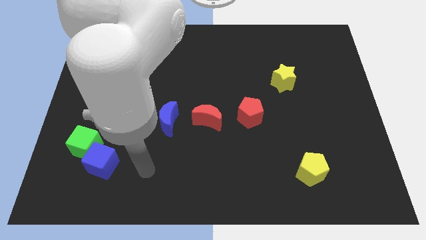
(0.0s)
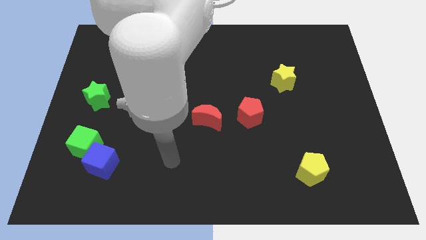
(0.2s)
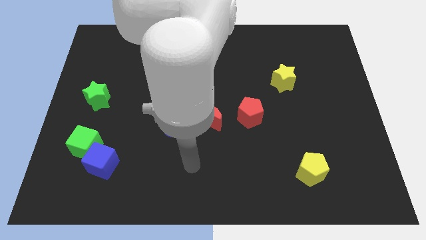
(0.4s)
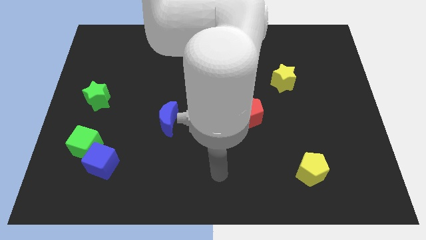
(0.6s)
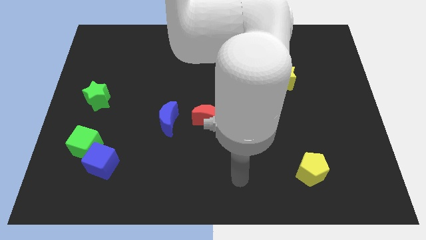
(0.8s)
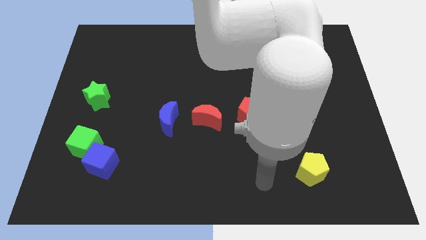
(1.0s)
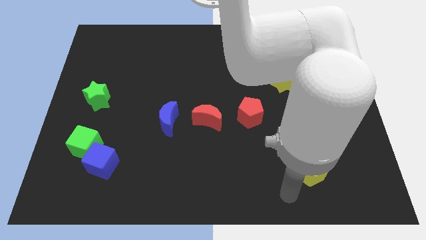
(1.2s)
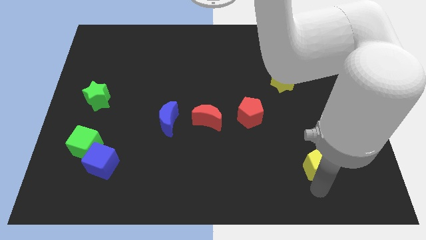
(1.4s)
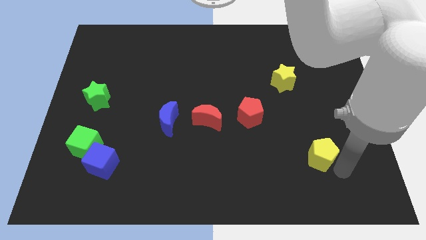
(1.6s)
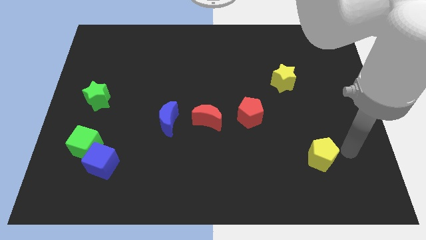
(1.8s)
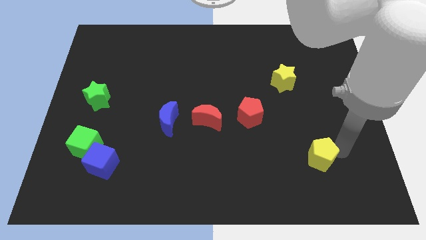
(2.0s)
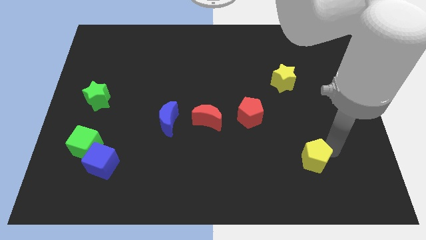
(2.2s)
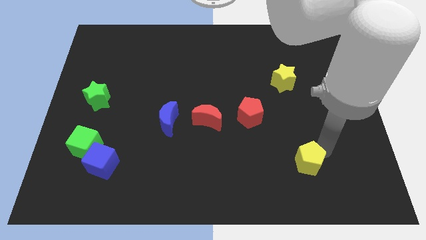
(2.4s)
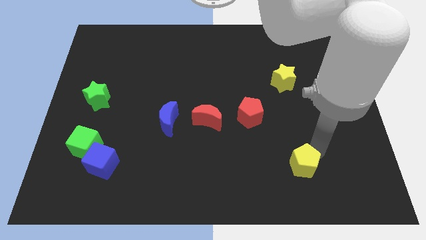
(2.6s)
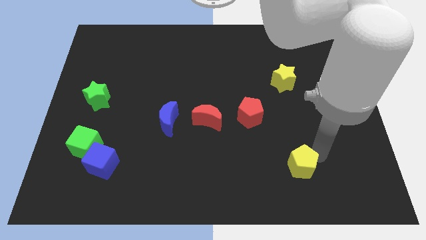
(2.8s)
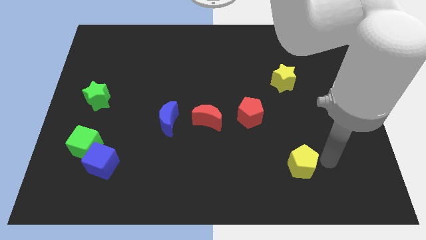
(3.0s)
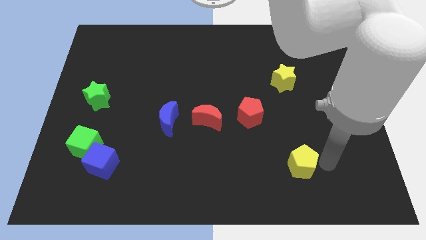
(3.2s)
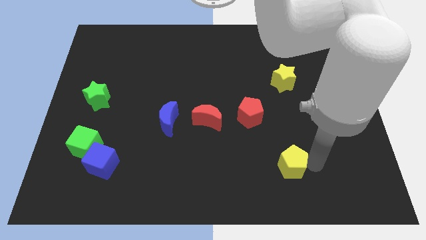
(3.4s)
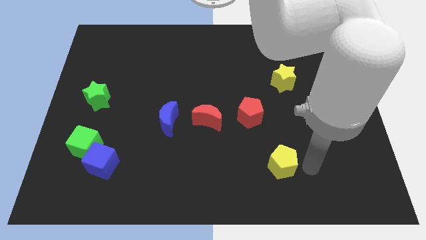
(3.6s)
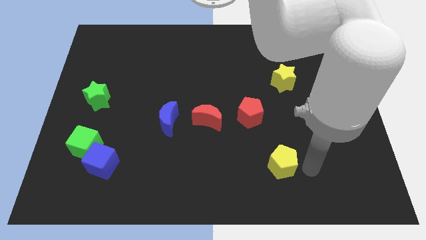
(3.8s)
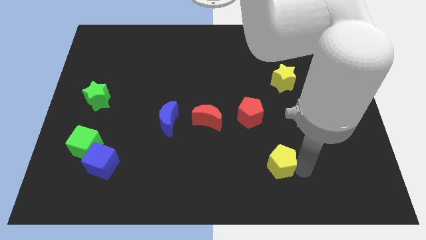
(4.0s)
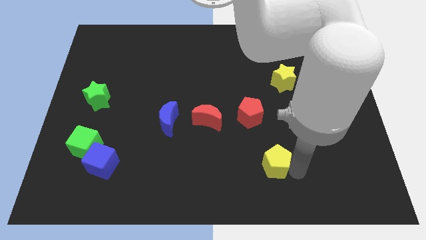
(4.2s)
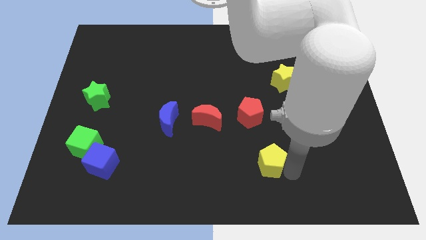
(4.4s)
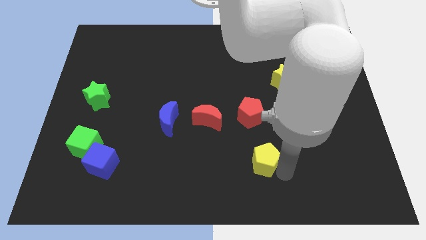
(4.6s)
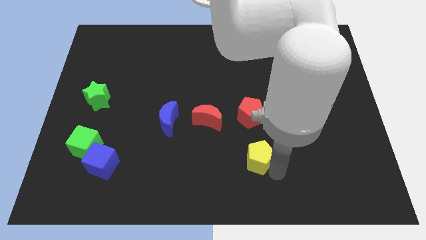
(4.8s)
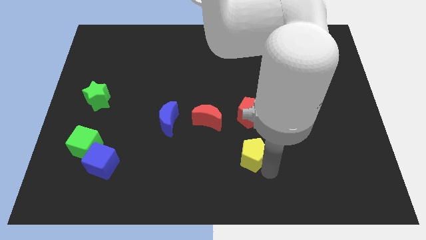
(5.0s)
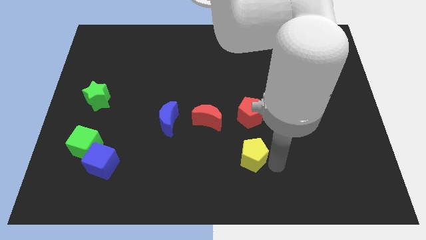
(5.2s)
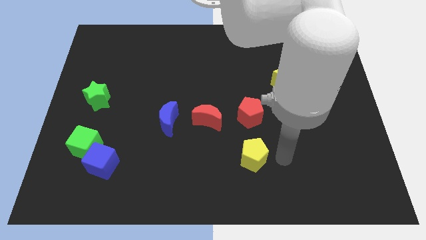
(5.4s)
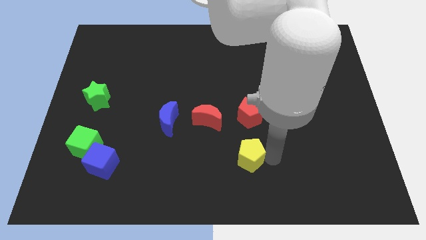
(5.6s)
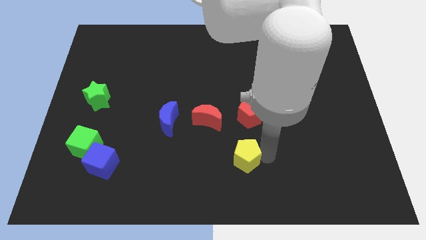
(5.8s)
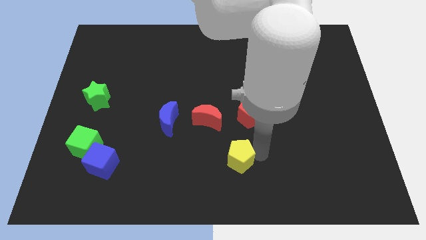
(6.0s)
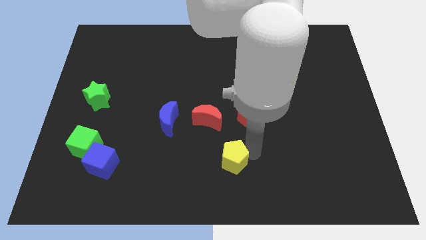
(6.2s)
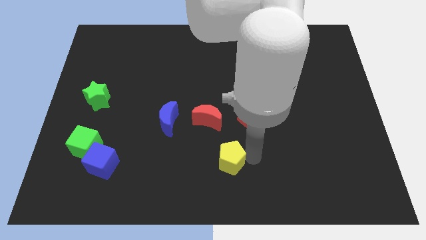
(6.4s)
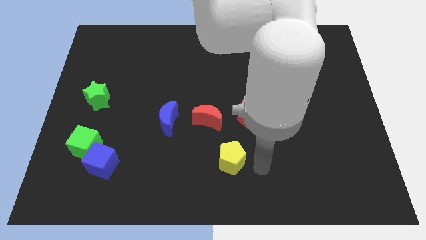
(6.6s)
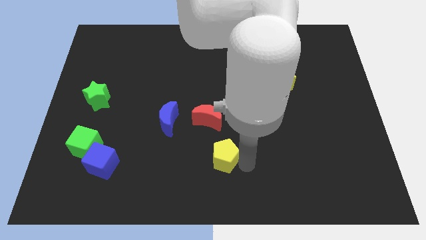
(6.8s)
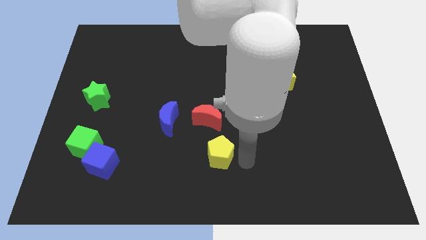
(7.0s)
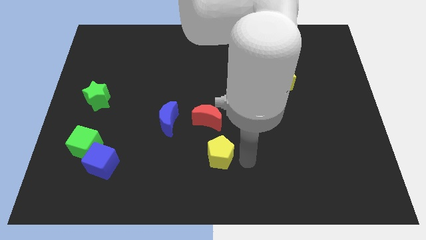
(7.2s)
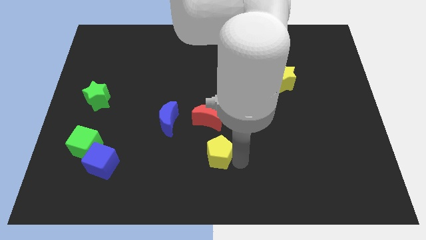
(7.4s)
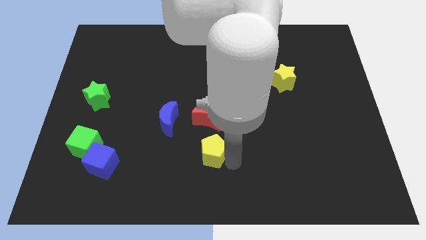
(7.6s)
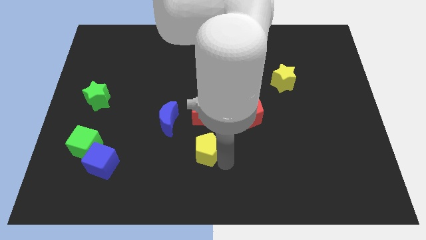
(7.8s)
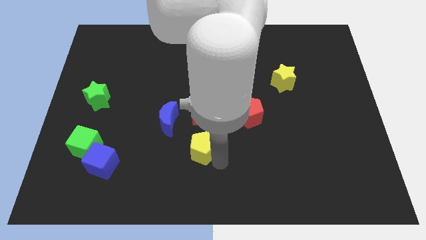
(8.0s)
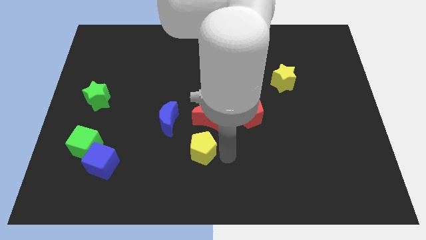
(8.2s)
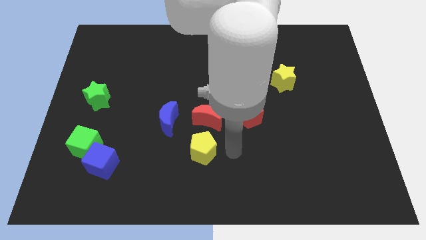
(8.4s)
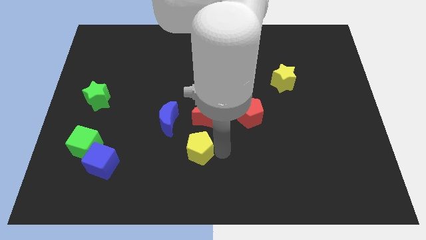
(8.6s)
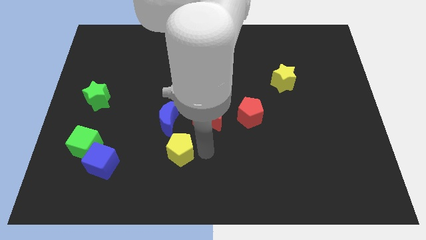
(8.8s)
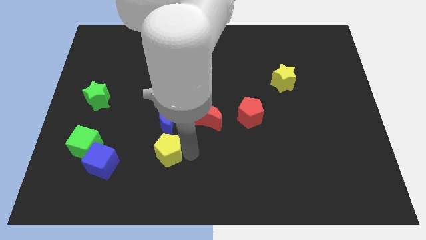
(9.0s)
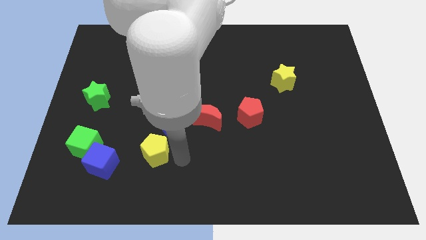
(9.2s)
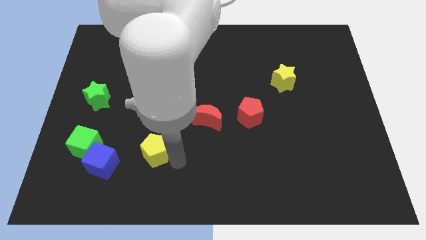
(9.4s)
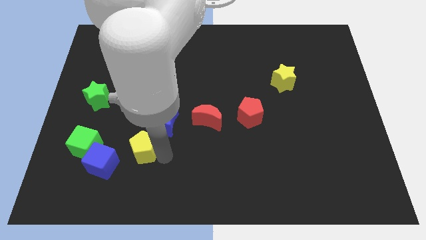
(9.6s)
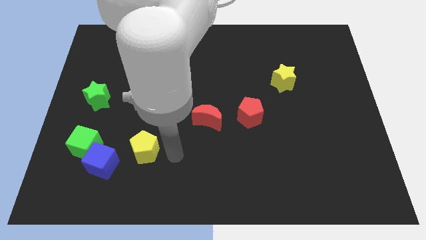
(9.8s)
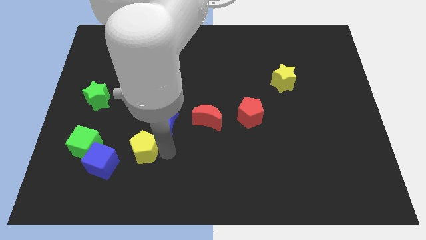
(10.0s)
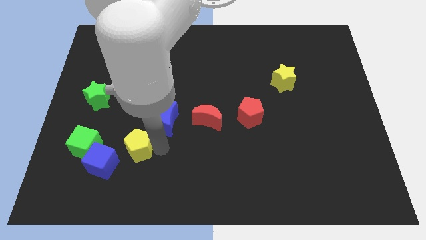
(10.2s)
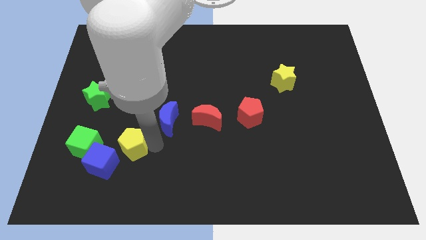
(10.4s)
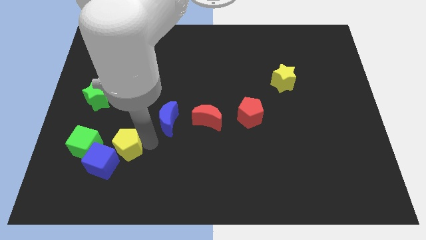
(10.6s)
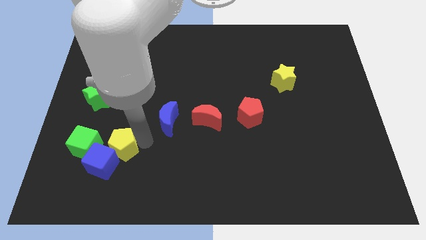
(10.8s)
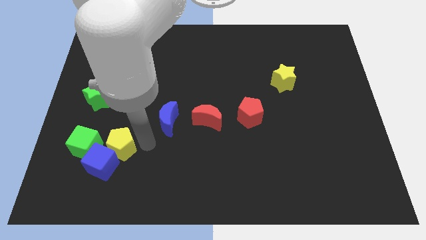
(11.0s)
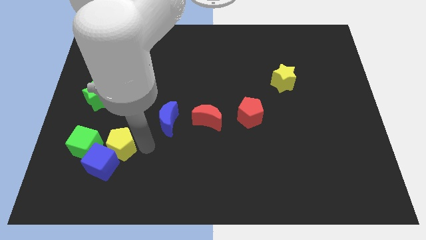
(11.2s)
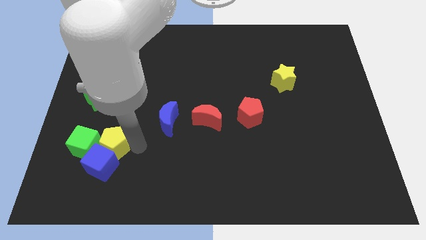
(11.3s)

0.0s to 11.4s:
push the yellow pentagon towards the green cube

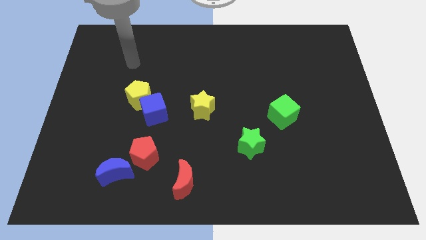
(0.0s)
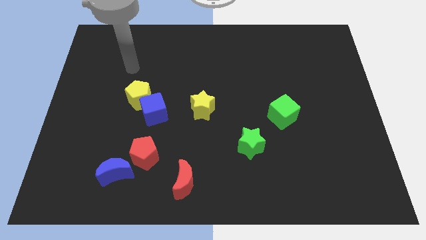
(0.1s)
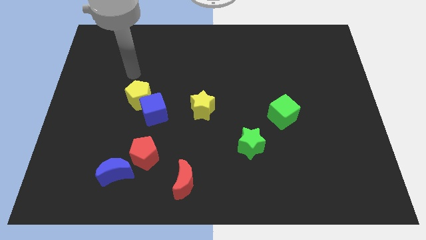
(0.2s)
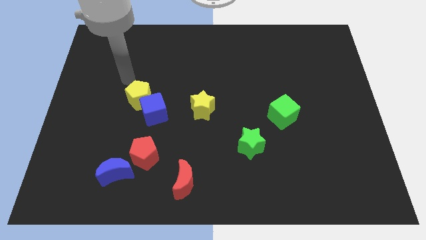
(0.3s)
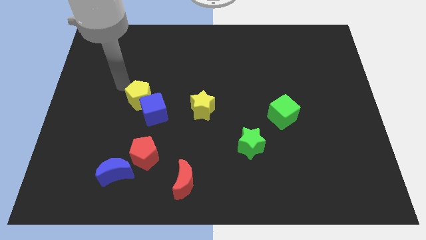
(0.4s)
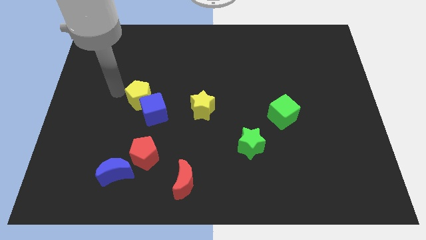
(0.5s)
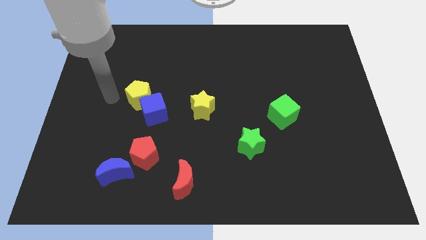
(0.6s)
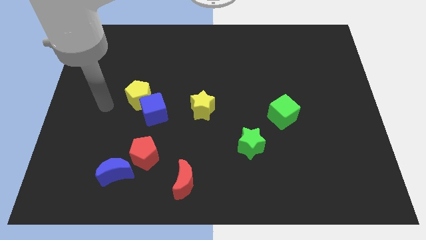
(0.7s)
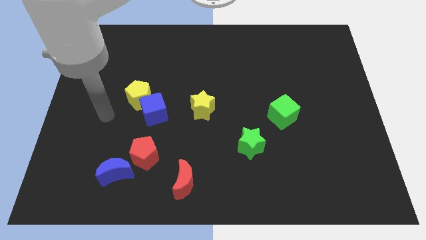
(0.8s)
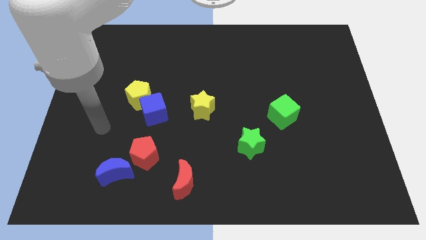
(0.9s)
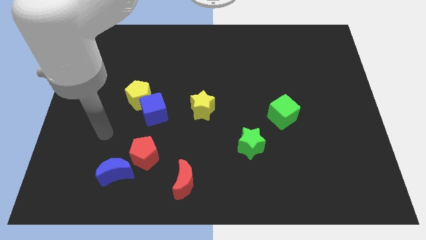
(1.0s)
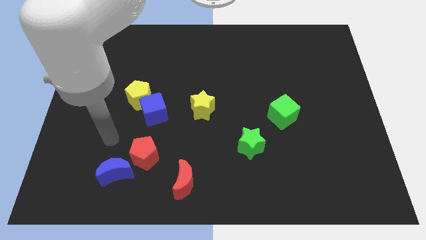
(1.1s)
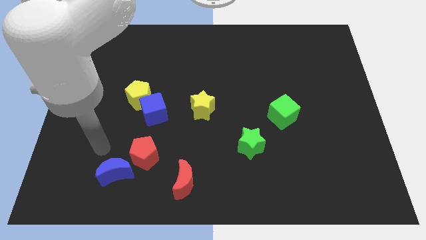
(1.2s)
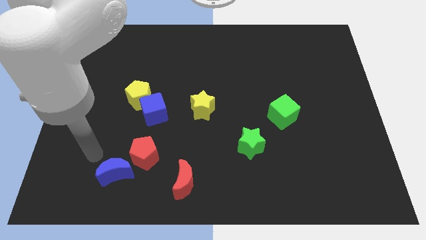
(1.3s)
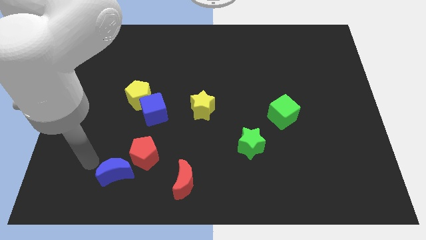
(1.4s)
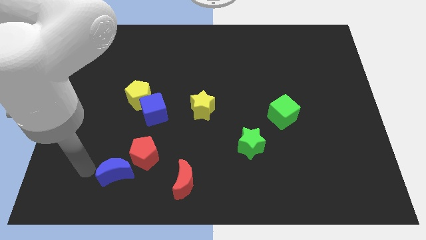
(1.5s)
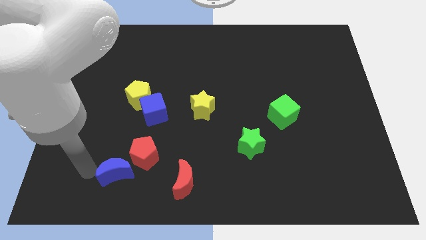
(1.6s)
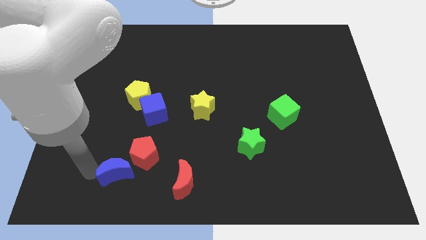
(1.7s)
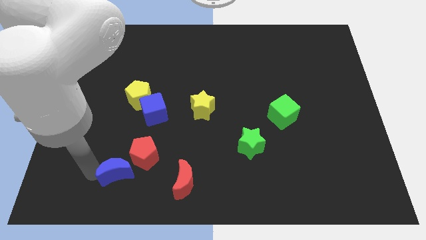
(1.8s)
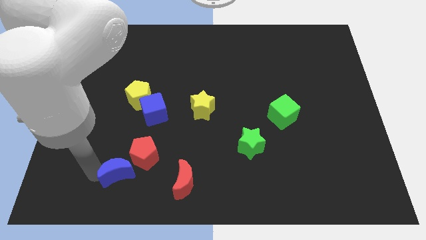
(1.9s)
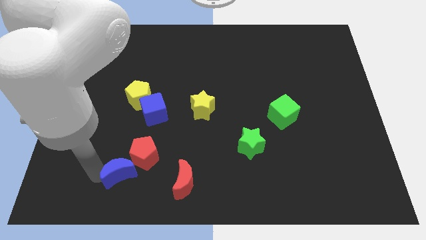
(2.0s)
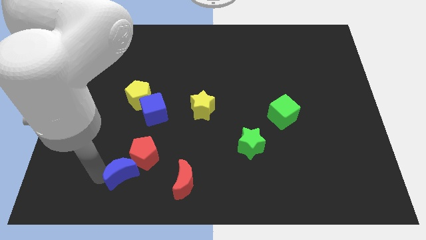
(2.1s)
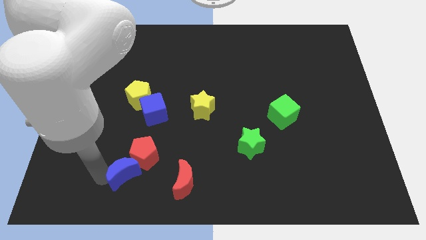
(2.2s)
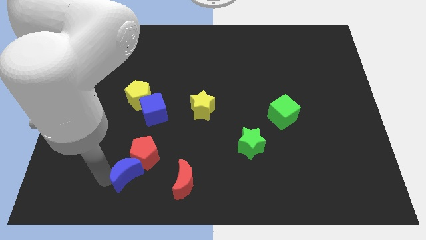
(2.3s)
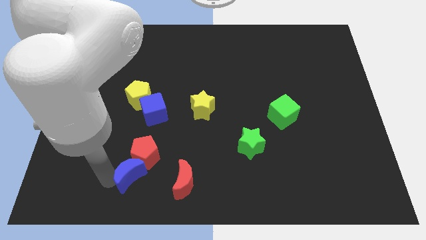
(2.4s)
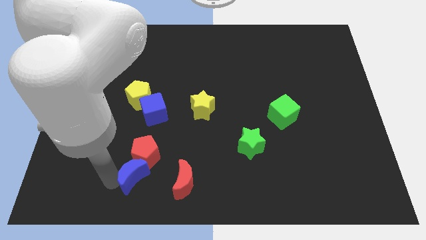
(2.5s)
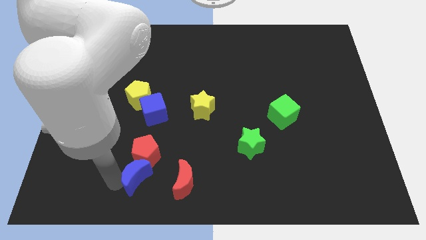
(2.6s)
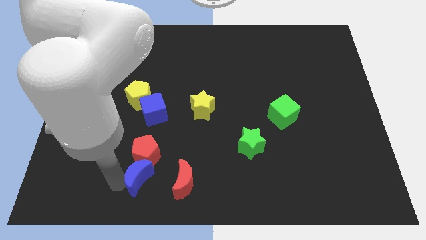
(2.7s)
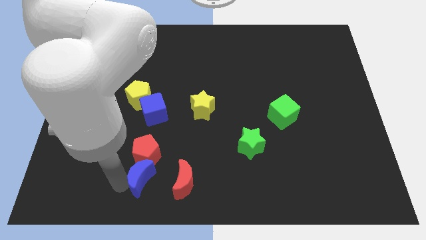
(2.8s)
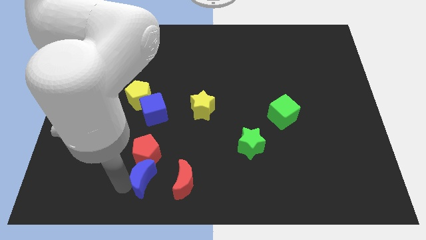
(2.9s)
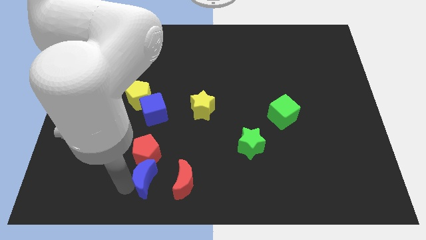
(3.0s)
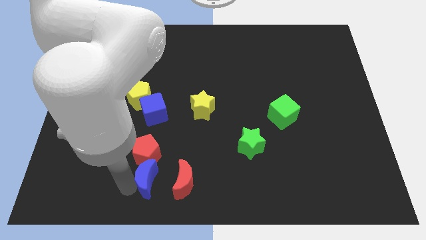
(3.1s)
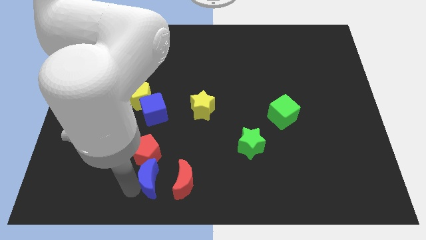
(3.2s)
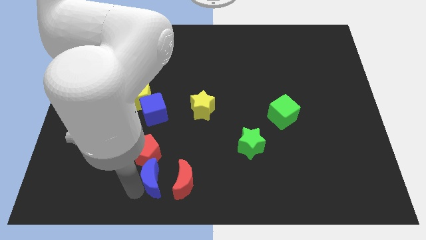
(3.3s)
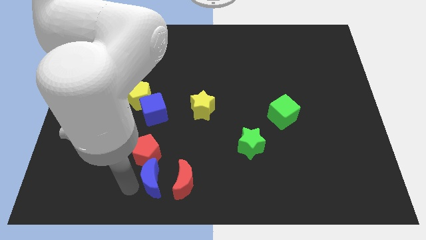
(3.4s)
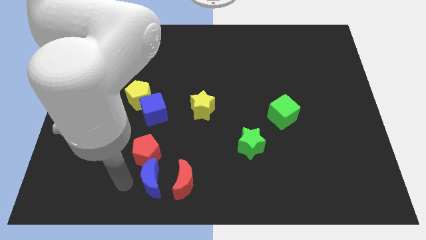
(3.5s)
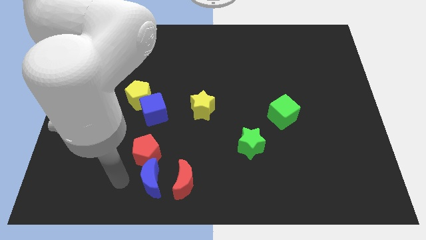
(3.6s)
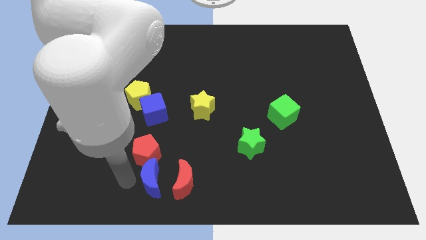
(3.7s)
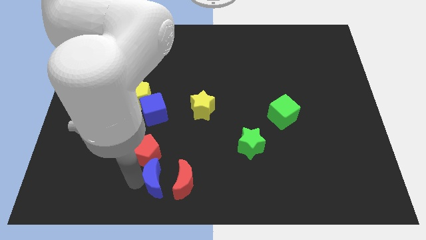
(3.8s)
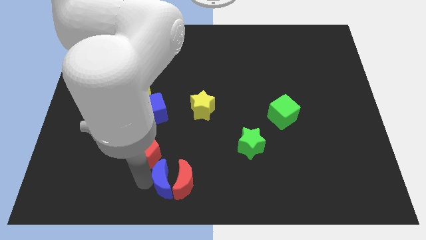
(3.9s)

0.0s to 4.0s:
push the blue moon next to the red moon
